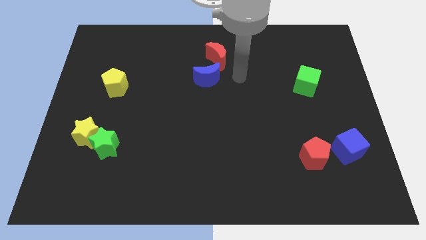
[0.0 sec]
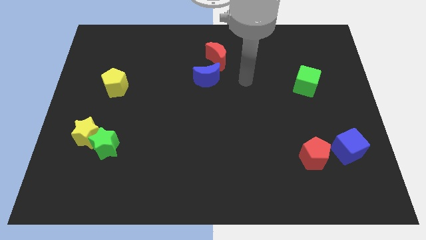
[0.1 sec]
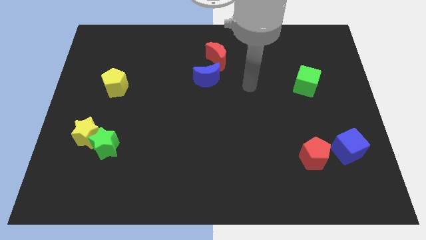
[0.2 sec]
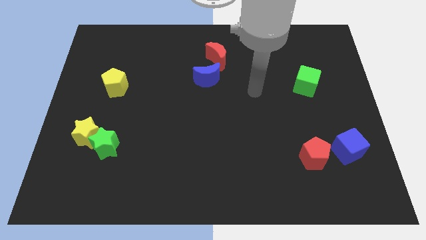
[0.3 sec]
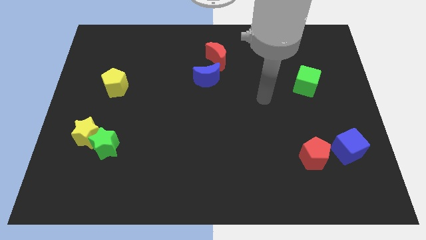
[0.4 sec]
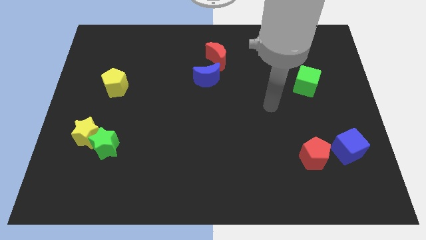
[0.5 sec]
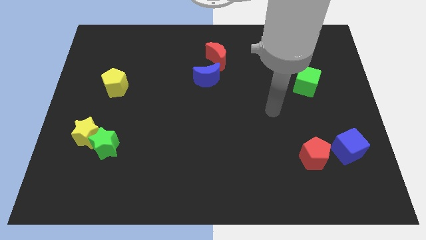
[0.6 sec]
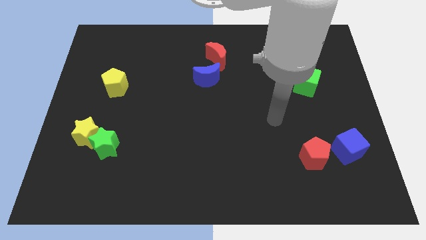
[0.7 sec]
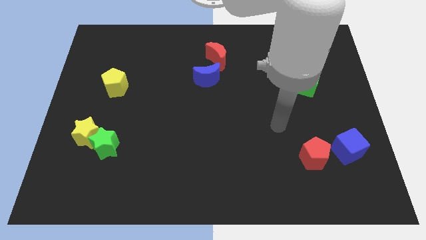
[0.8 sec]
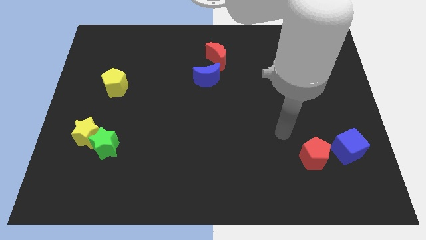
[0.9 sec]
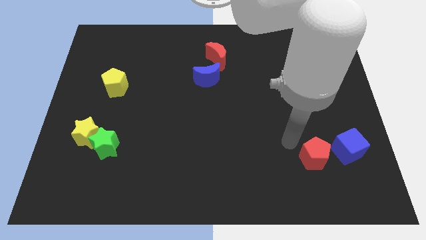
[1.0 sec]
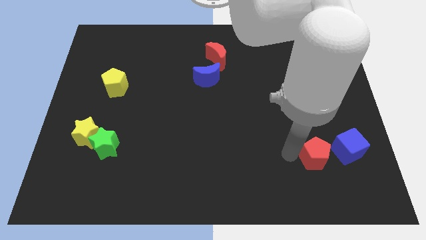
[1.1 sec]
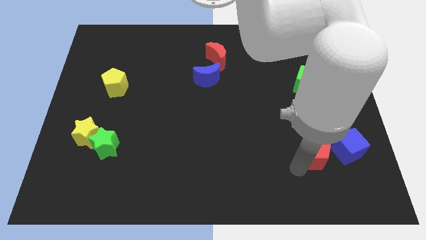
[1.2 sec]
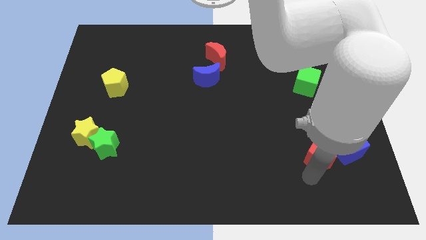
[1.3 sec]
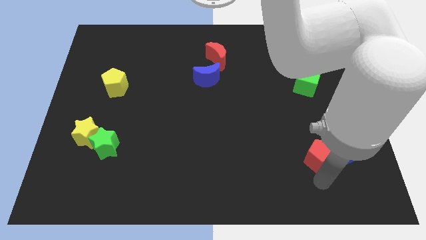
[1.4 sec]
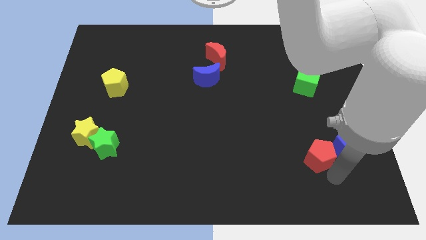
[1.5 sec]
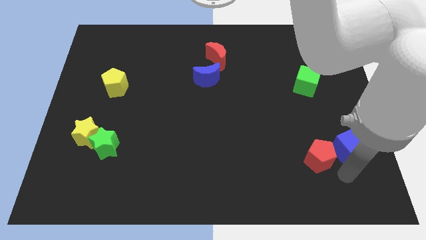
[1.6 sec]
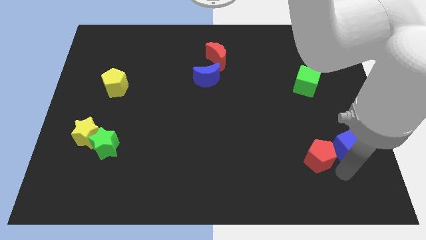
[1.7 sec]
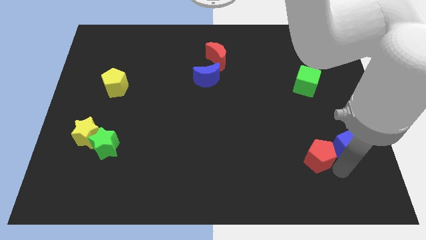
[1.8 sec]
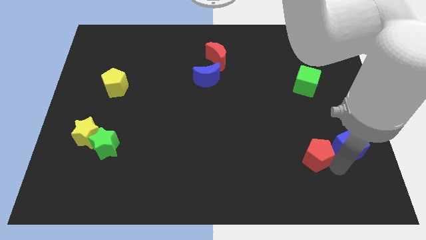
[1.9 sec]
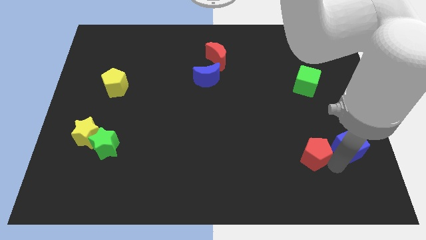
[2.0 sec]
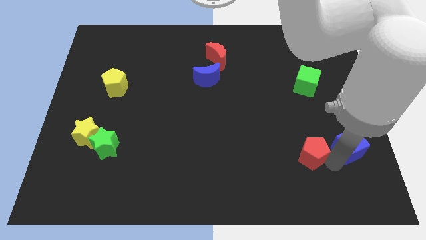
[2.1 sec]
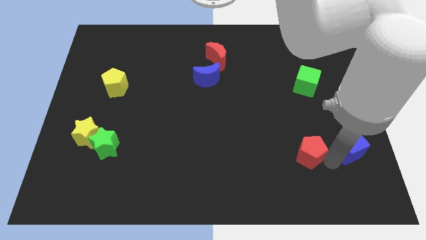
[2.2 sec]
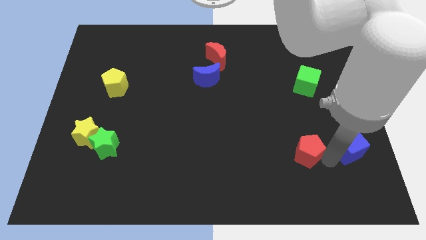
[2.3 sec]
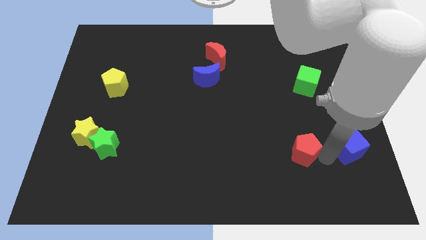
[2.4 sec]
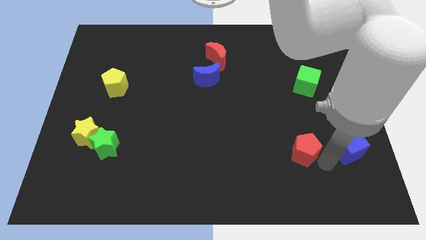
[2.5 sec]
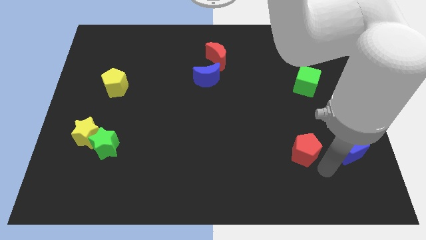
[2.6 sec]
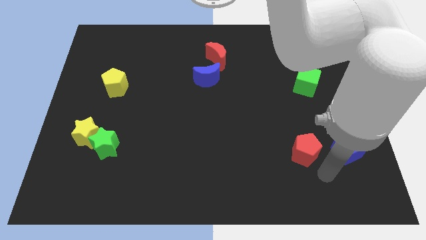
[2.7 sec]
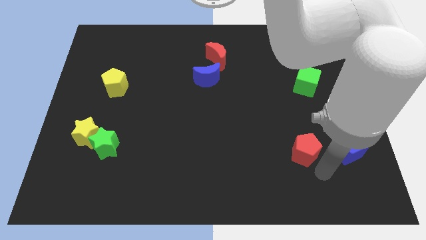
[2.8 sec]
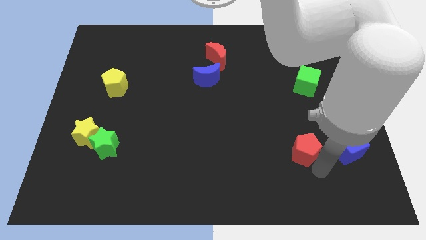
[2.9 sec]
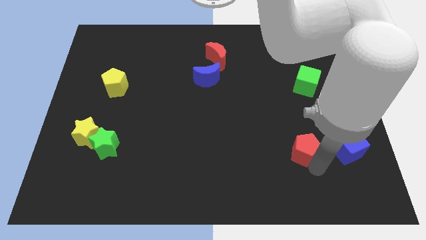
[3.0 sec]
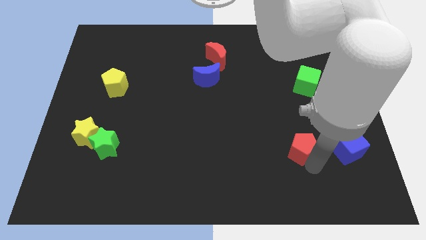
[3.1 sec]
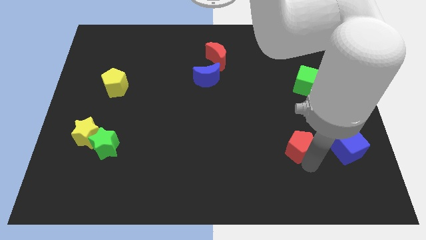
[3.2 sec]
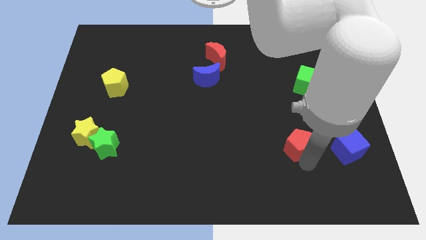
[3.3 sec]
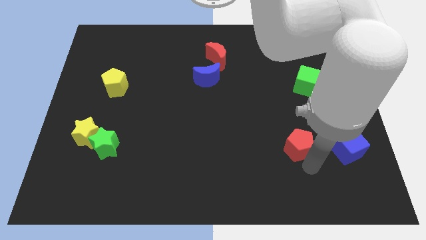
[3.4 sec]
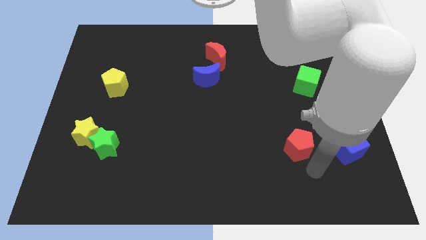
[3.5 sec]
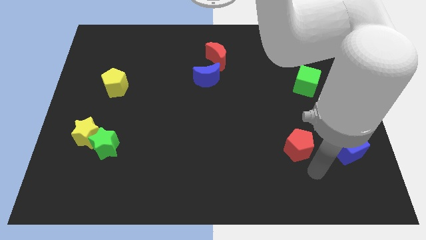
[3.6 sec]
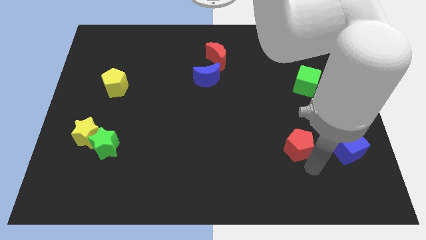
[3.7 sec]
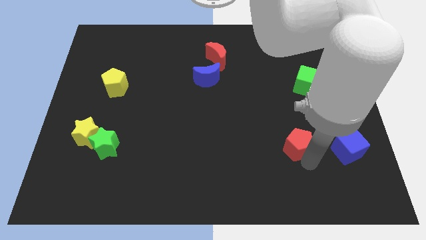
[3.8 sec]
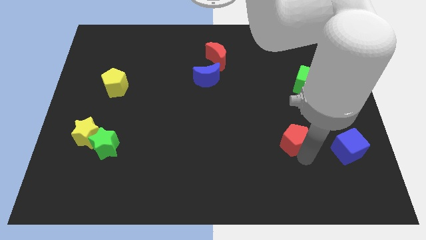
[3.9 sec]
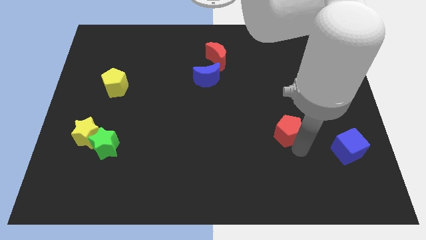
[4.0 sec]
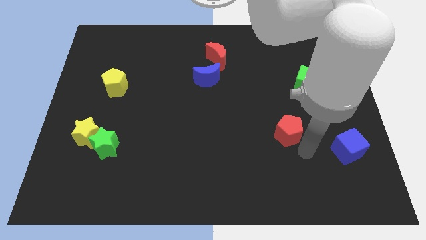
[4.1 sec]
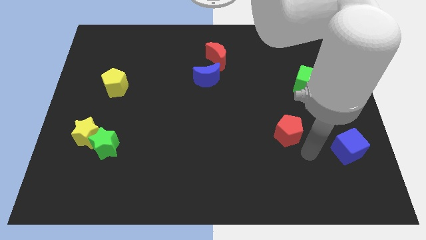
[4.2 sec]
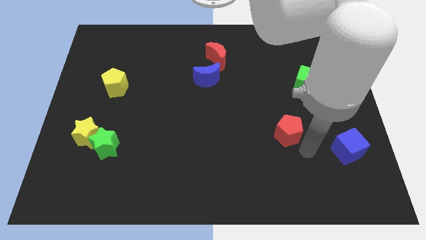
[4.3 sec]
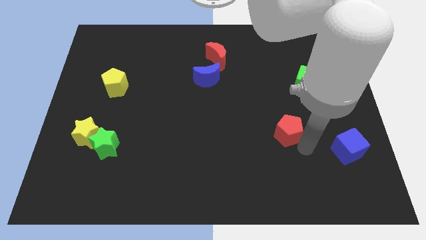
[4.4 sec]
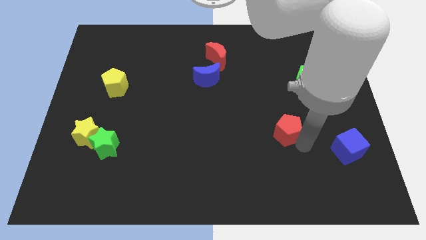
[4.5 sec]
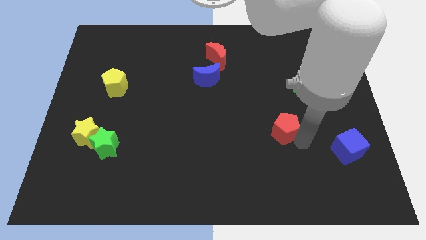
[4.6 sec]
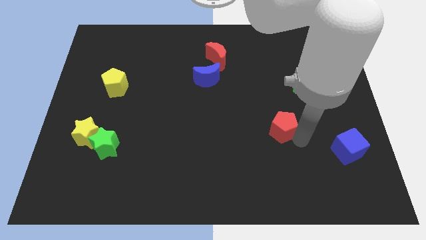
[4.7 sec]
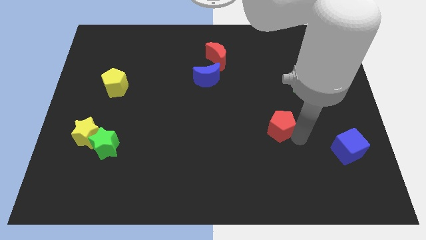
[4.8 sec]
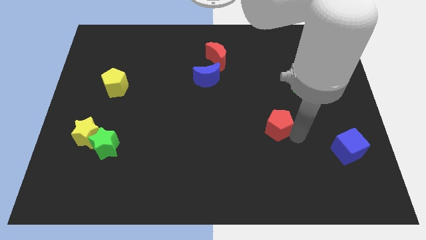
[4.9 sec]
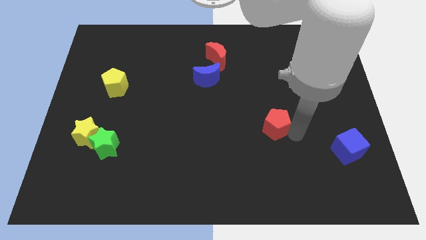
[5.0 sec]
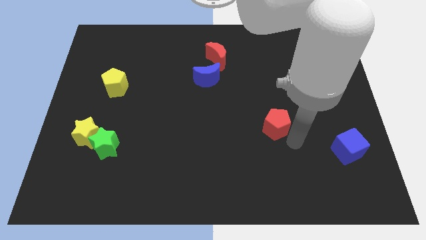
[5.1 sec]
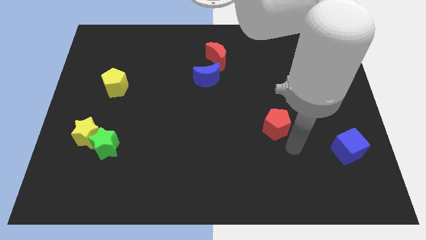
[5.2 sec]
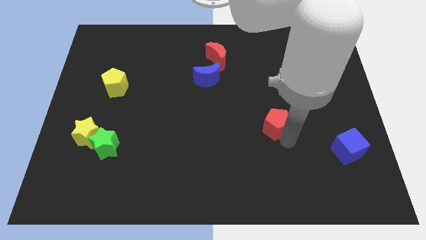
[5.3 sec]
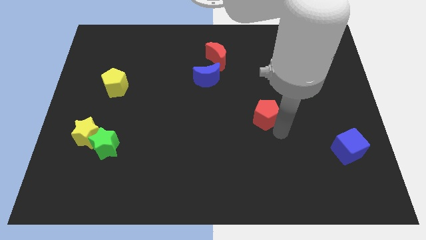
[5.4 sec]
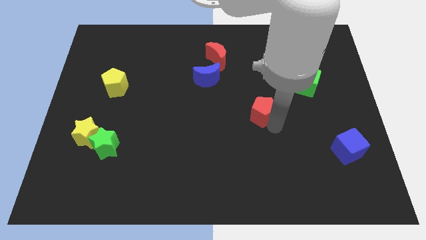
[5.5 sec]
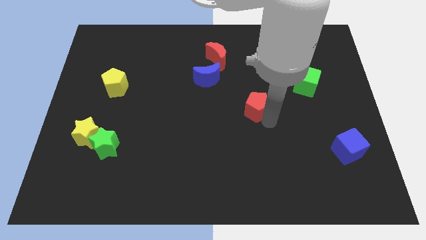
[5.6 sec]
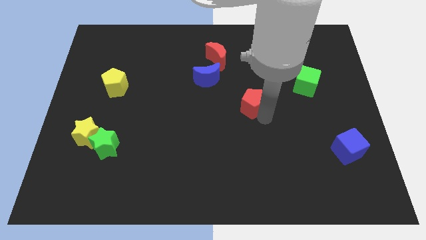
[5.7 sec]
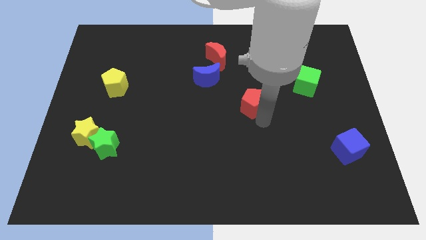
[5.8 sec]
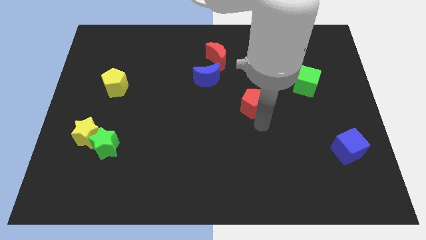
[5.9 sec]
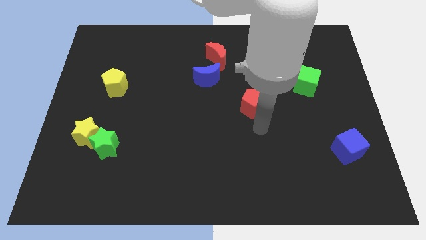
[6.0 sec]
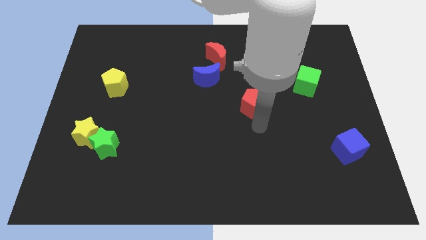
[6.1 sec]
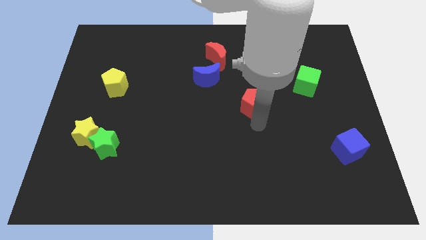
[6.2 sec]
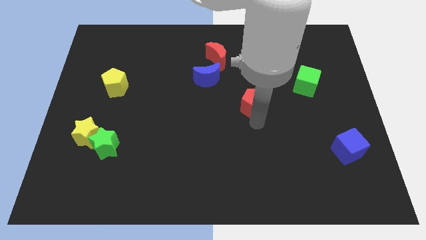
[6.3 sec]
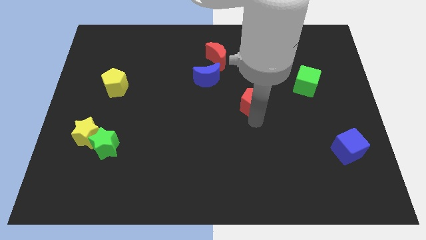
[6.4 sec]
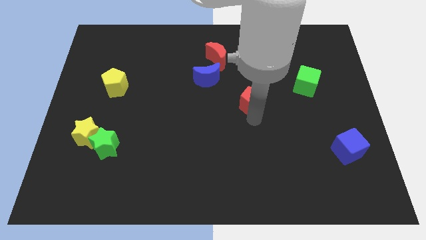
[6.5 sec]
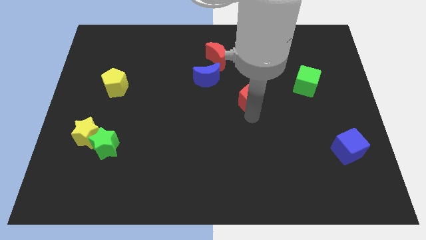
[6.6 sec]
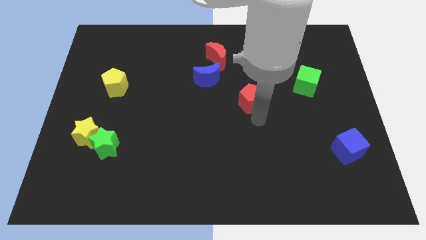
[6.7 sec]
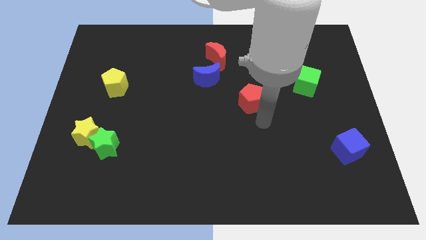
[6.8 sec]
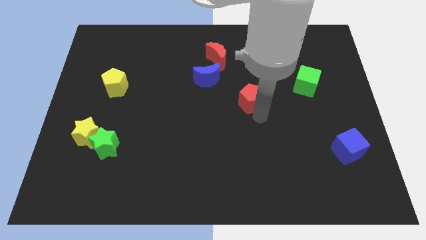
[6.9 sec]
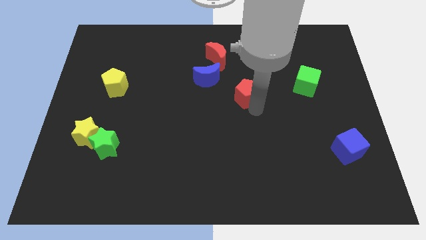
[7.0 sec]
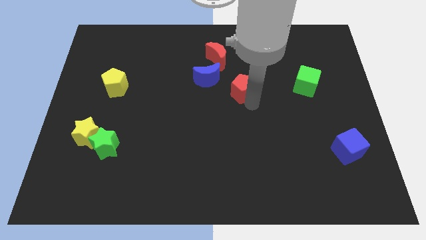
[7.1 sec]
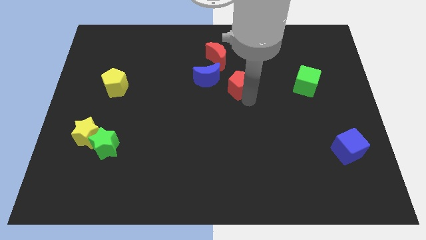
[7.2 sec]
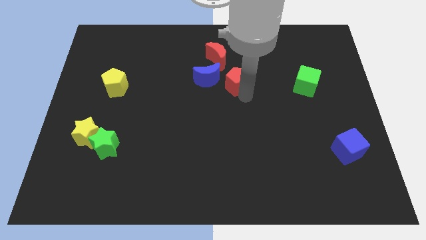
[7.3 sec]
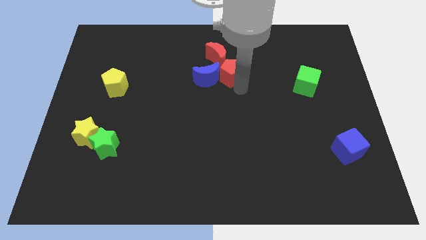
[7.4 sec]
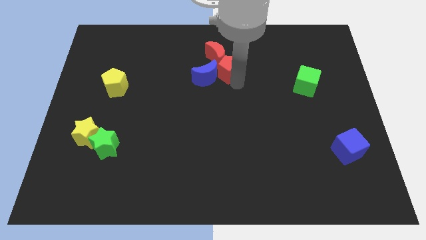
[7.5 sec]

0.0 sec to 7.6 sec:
slide the red pentagon close to the red moon
